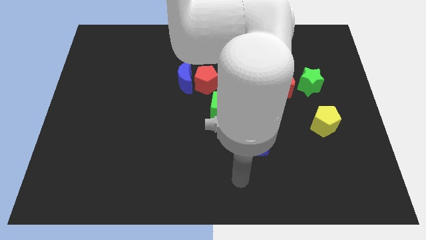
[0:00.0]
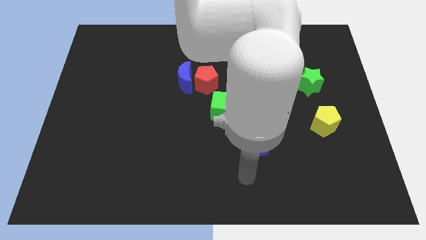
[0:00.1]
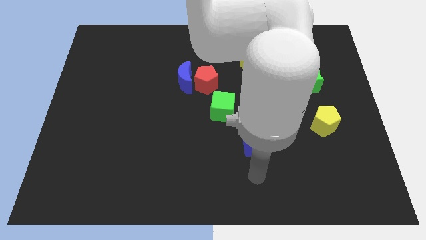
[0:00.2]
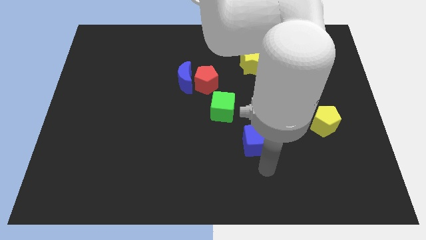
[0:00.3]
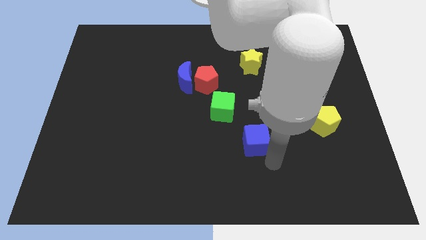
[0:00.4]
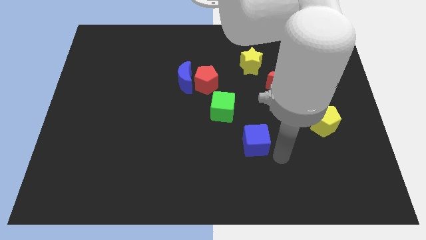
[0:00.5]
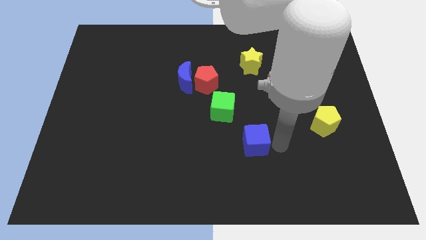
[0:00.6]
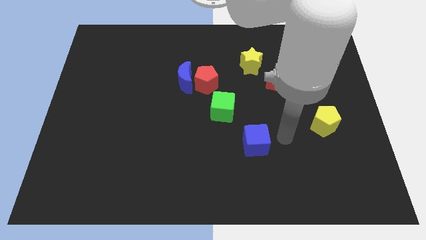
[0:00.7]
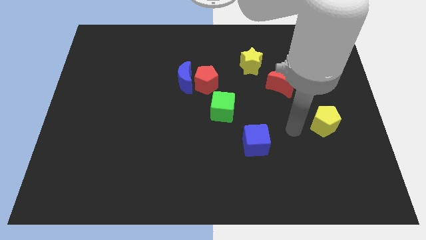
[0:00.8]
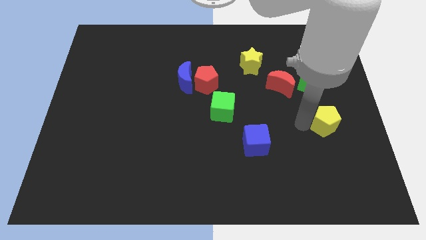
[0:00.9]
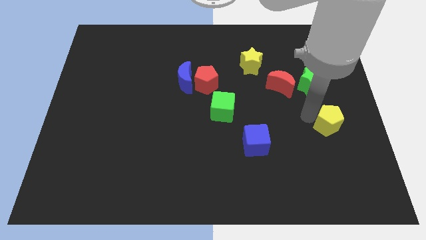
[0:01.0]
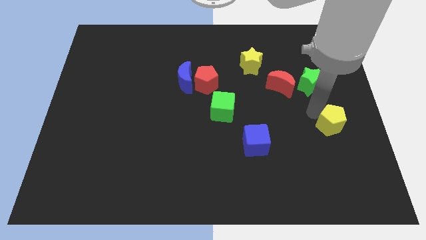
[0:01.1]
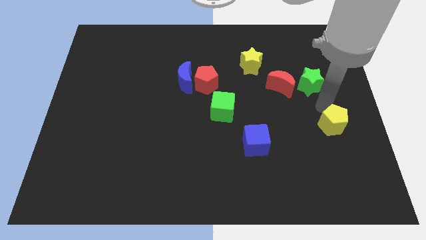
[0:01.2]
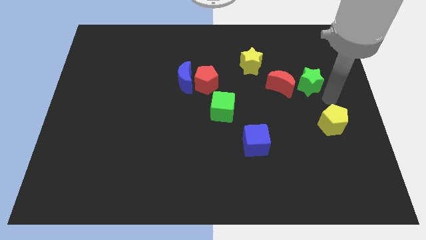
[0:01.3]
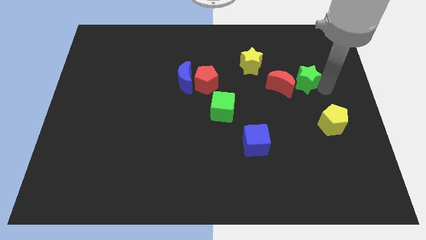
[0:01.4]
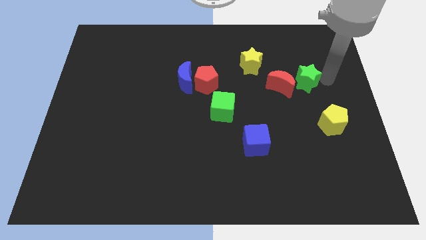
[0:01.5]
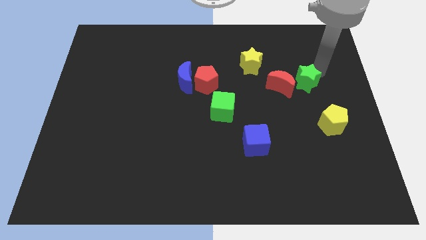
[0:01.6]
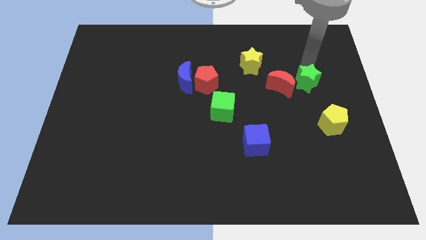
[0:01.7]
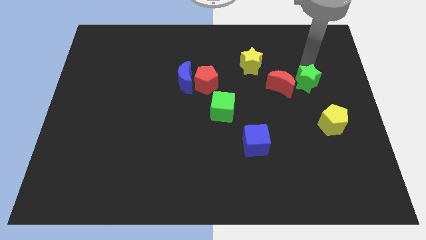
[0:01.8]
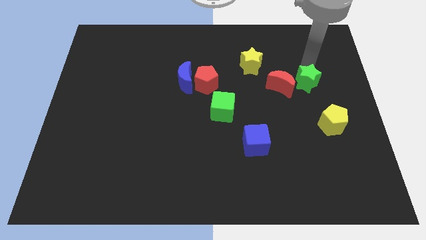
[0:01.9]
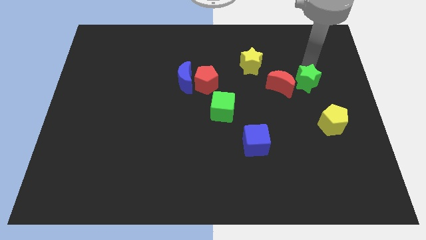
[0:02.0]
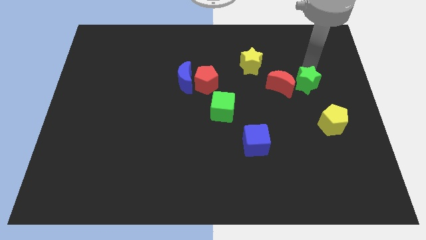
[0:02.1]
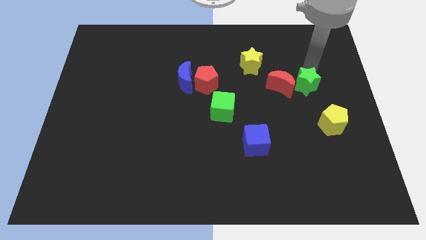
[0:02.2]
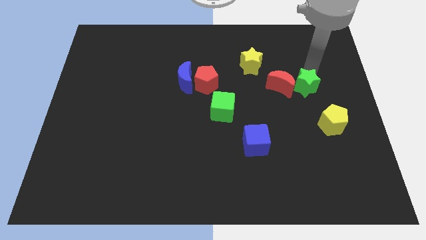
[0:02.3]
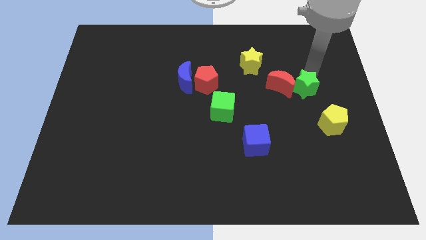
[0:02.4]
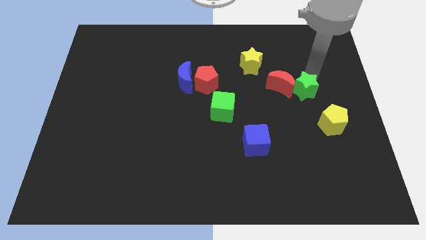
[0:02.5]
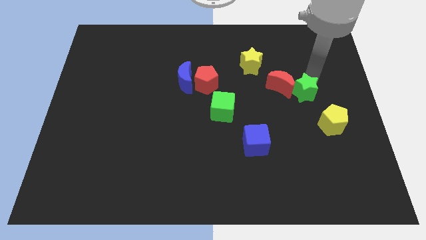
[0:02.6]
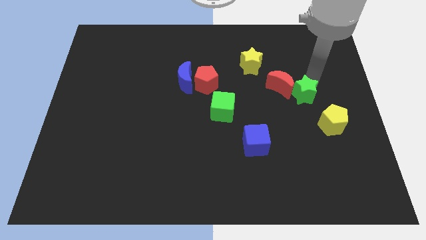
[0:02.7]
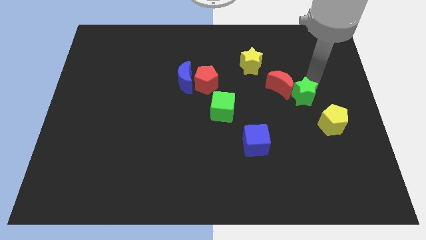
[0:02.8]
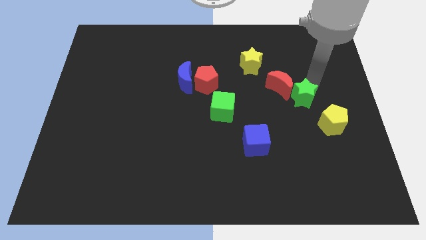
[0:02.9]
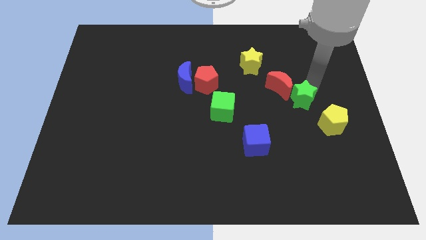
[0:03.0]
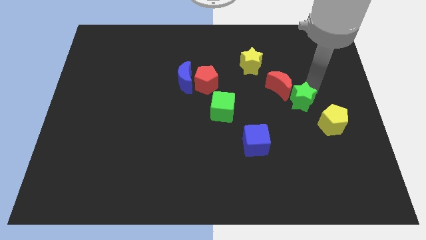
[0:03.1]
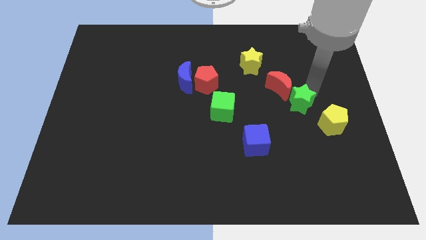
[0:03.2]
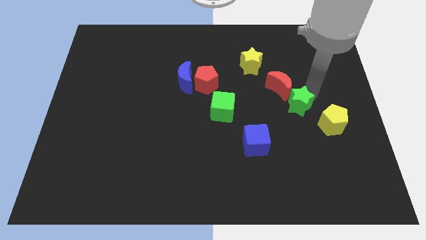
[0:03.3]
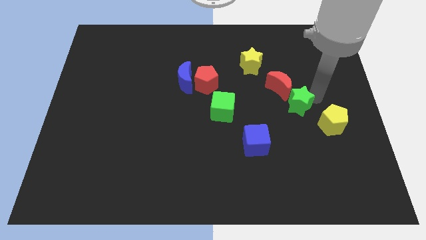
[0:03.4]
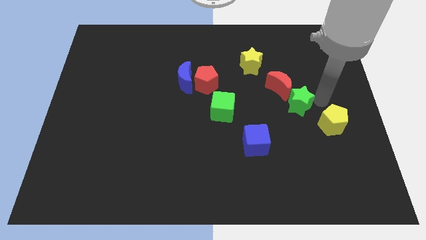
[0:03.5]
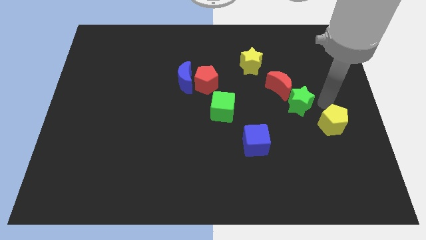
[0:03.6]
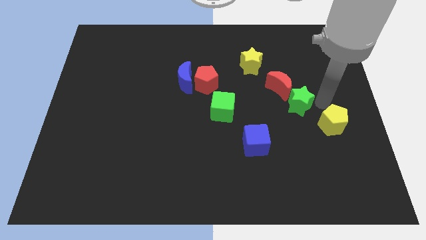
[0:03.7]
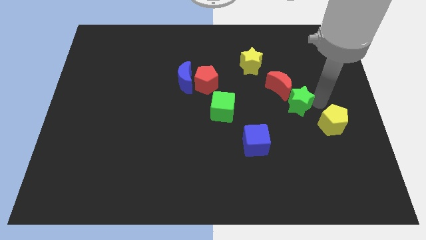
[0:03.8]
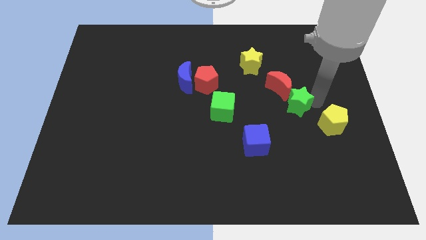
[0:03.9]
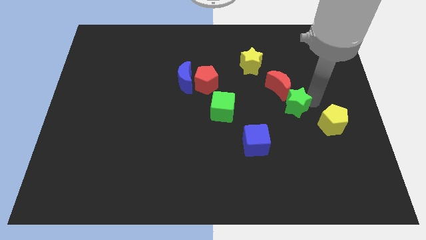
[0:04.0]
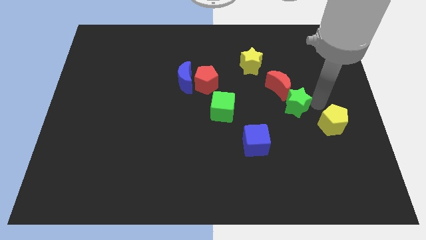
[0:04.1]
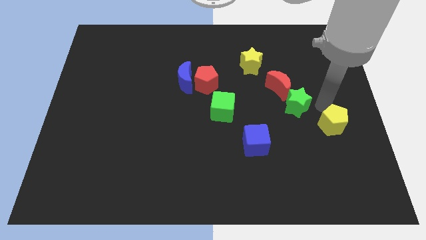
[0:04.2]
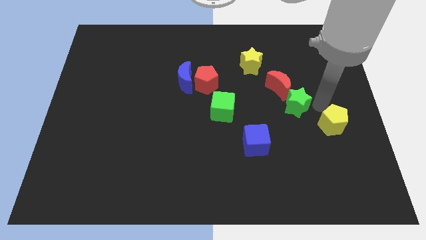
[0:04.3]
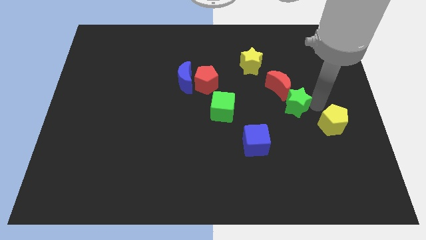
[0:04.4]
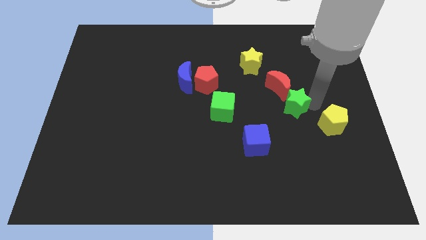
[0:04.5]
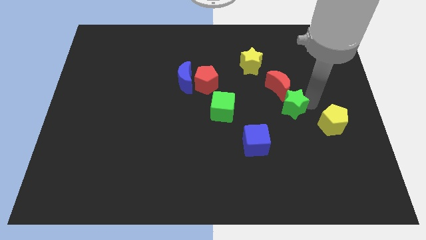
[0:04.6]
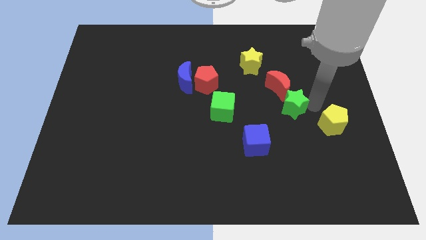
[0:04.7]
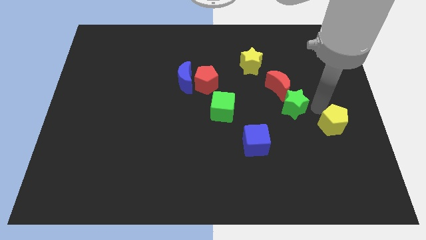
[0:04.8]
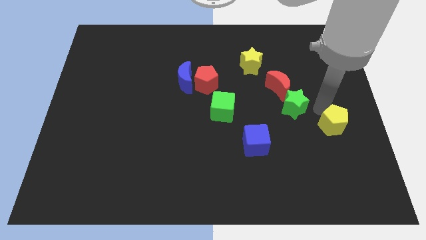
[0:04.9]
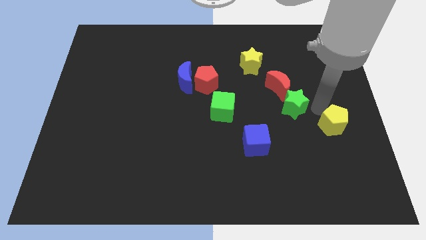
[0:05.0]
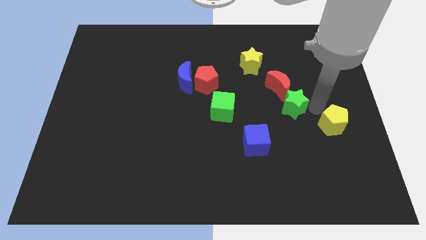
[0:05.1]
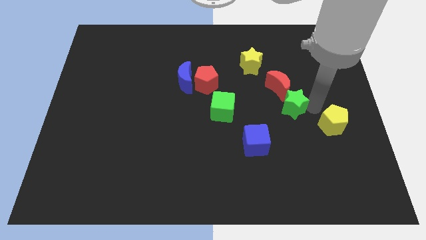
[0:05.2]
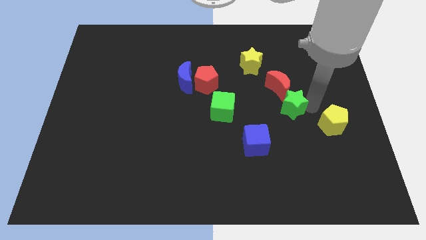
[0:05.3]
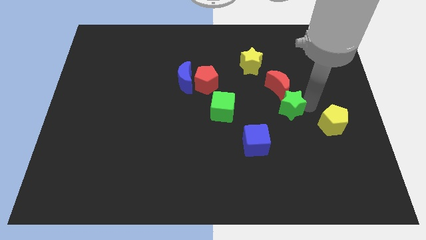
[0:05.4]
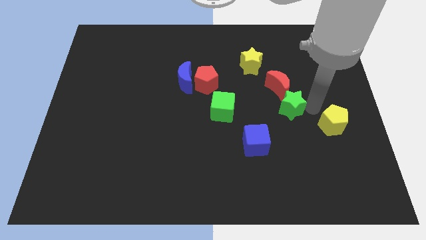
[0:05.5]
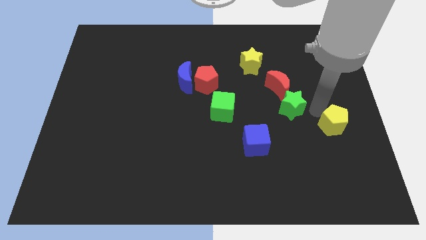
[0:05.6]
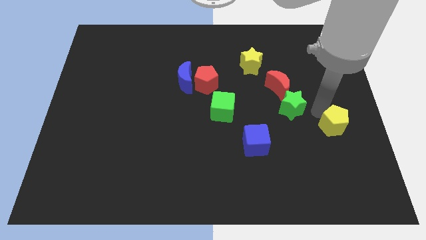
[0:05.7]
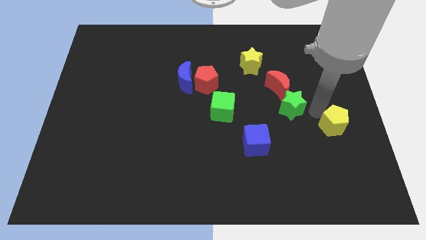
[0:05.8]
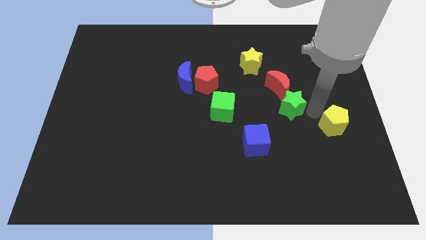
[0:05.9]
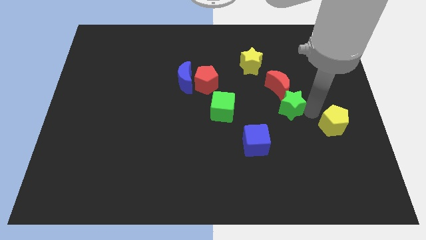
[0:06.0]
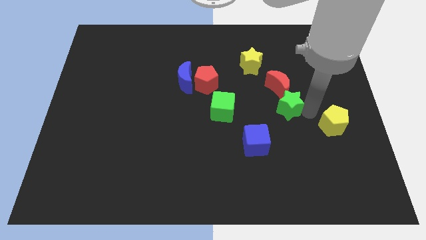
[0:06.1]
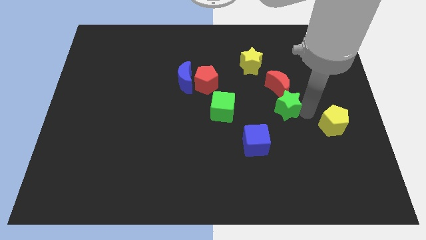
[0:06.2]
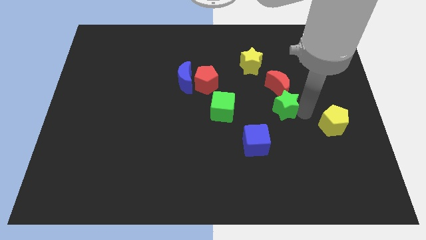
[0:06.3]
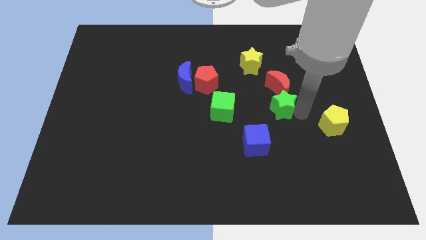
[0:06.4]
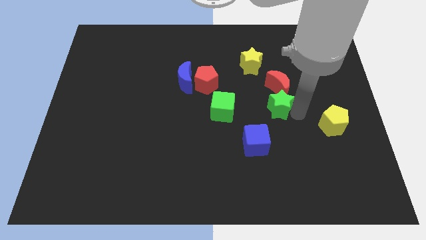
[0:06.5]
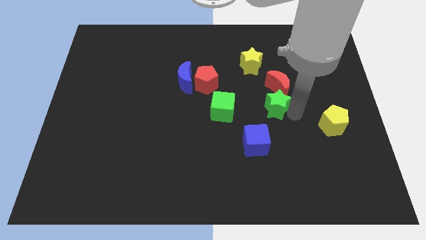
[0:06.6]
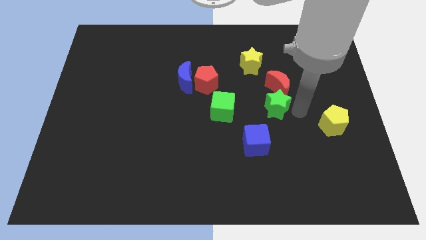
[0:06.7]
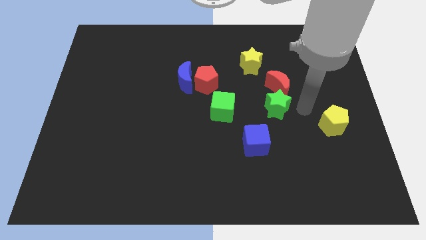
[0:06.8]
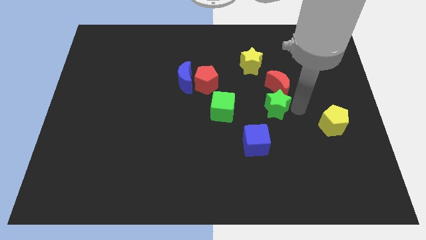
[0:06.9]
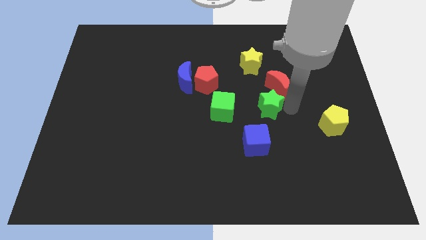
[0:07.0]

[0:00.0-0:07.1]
move the green star to the top of the blue cube
